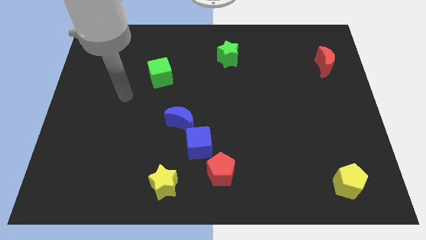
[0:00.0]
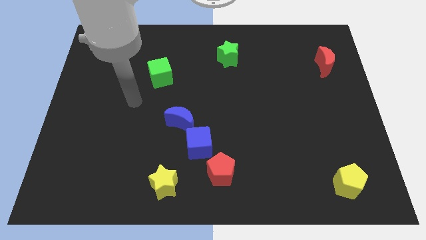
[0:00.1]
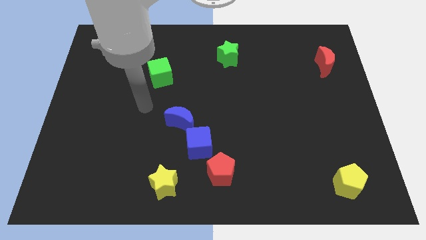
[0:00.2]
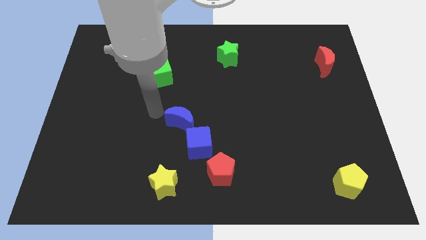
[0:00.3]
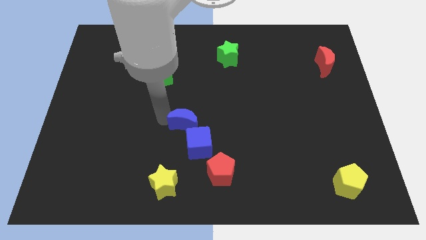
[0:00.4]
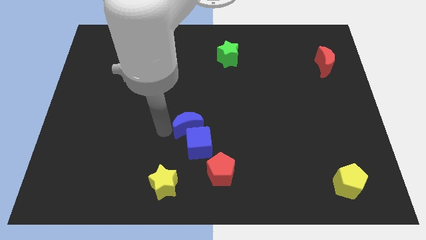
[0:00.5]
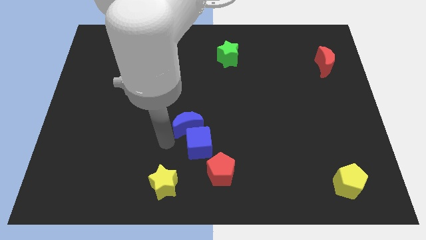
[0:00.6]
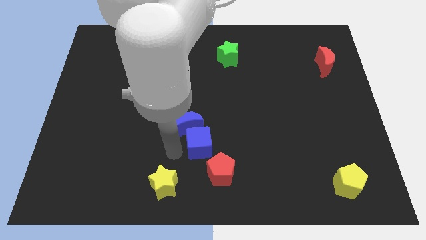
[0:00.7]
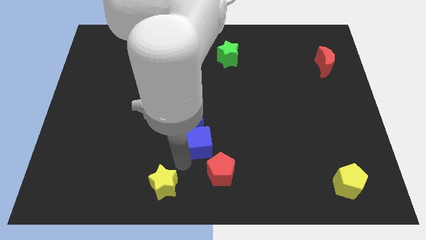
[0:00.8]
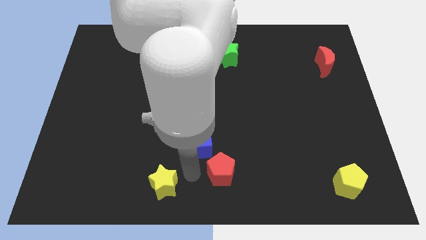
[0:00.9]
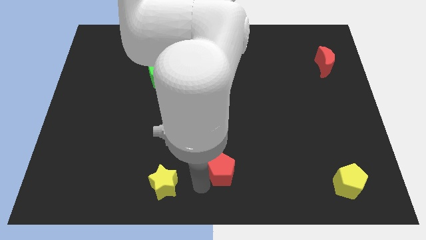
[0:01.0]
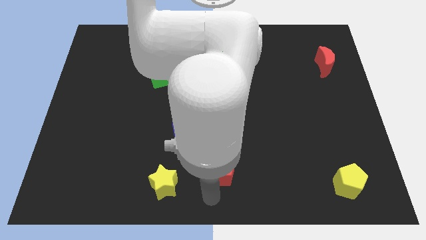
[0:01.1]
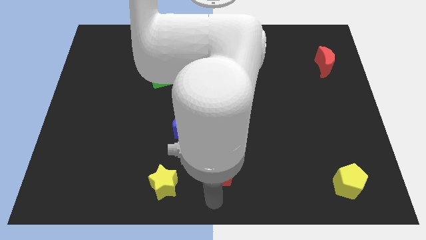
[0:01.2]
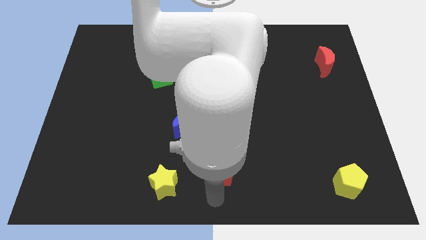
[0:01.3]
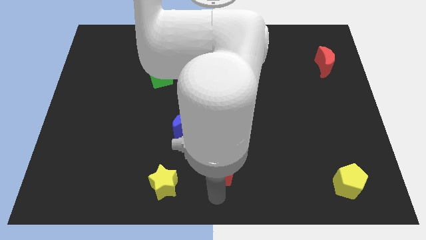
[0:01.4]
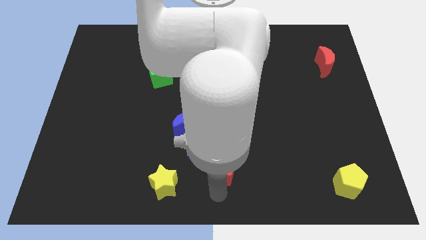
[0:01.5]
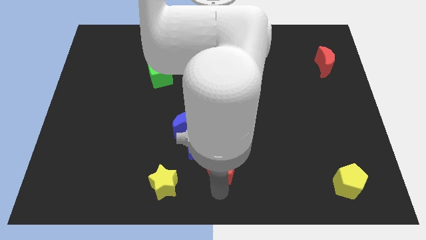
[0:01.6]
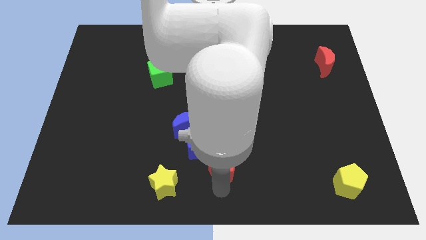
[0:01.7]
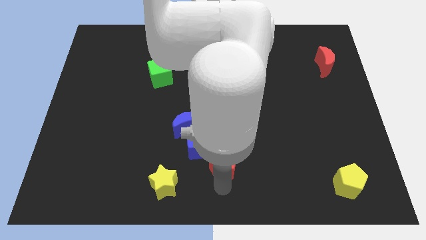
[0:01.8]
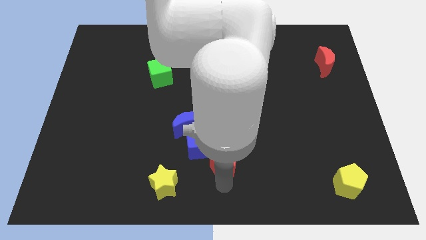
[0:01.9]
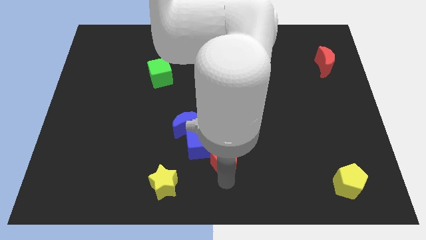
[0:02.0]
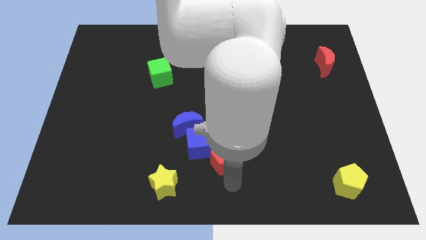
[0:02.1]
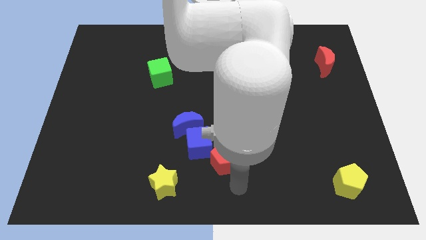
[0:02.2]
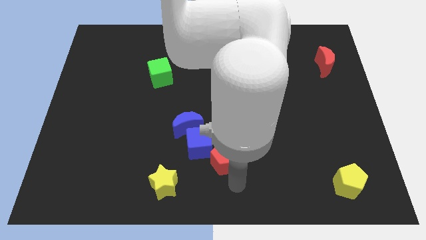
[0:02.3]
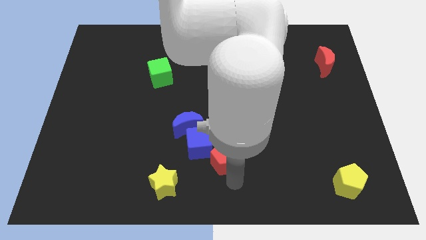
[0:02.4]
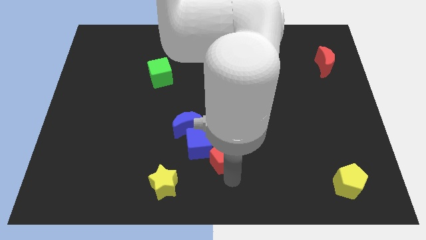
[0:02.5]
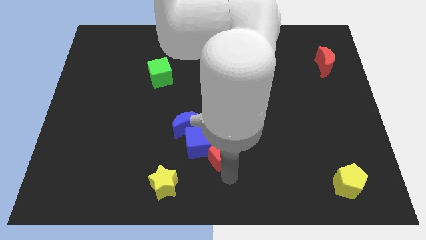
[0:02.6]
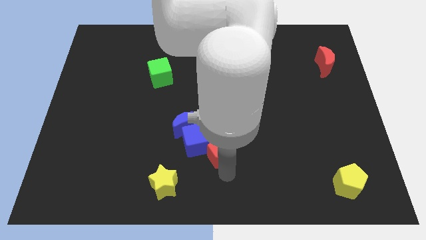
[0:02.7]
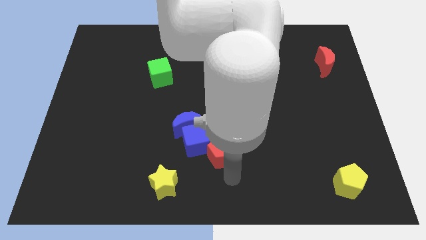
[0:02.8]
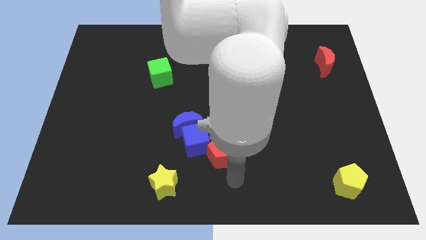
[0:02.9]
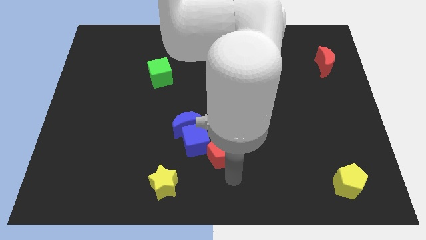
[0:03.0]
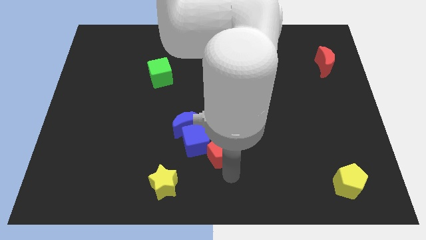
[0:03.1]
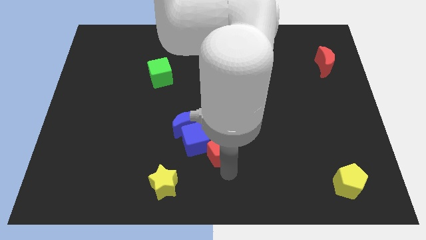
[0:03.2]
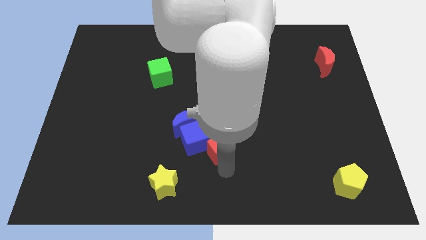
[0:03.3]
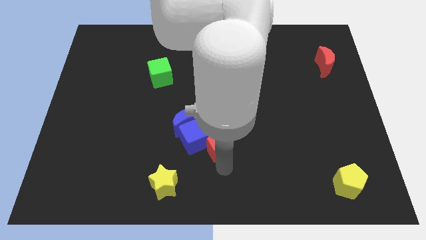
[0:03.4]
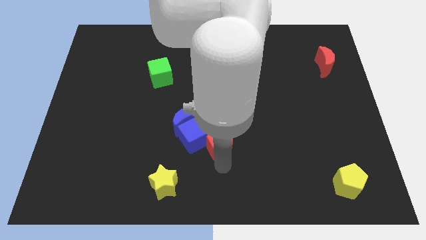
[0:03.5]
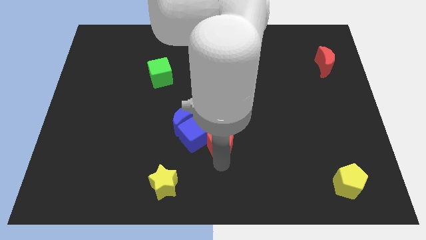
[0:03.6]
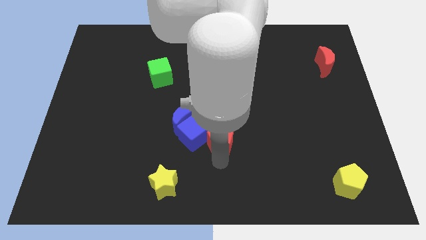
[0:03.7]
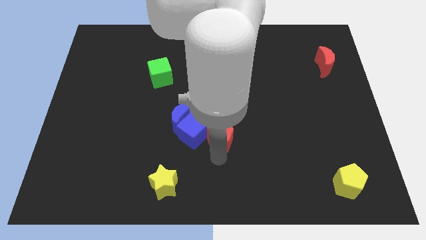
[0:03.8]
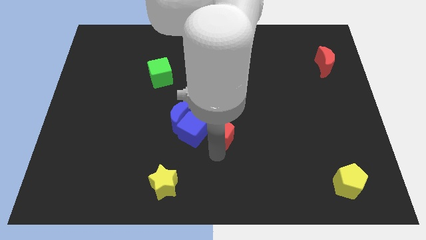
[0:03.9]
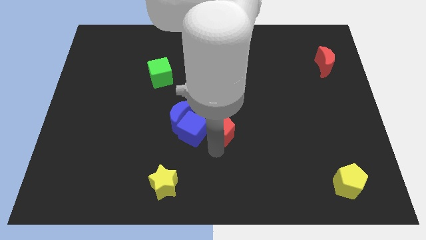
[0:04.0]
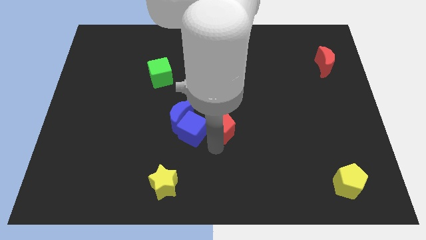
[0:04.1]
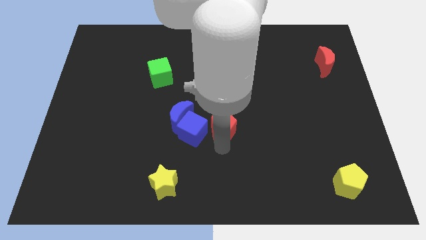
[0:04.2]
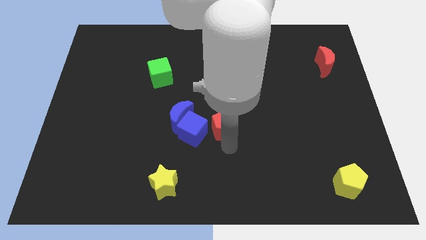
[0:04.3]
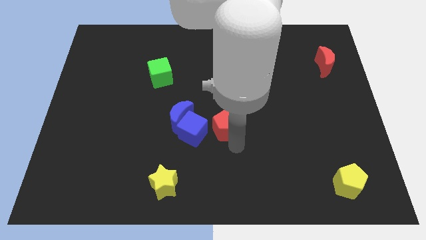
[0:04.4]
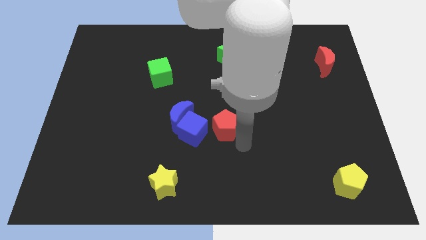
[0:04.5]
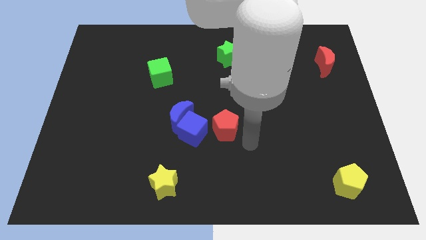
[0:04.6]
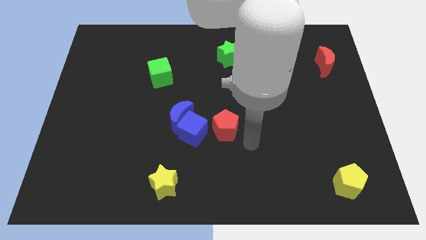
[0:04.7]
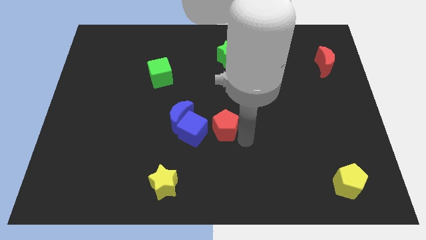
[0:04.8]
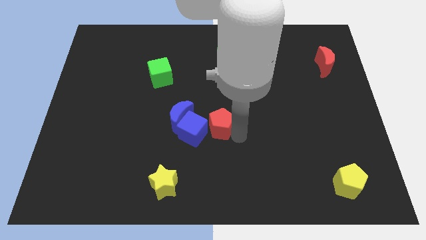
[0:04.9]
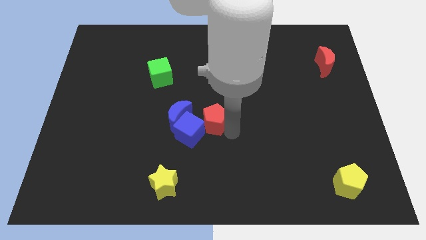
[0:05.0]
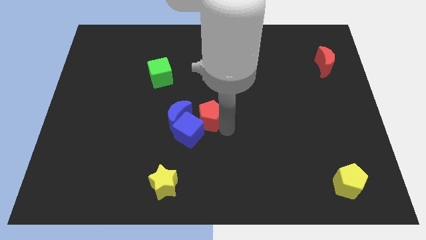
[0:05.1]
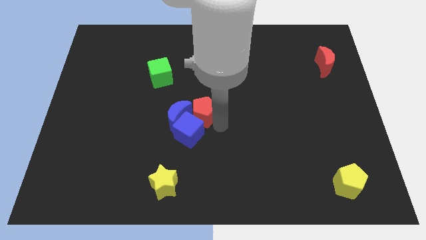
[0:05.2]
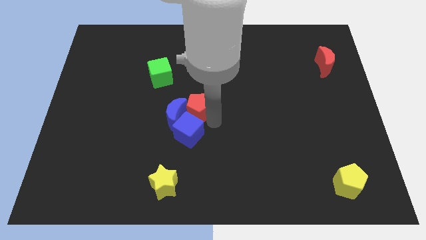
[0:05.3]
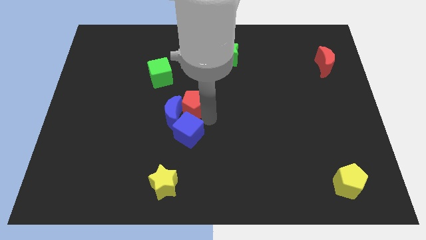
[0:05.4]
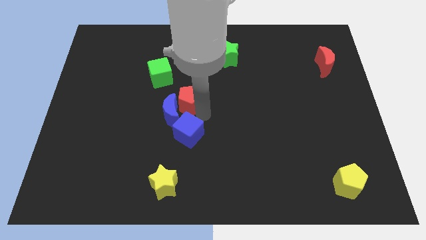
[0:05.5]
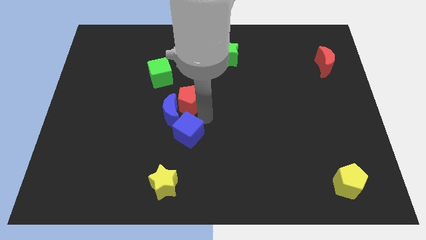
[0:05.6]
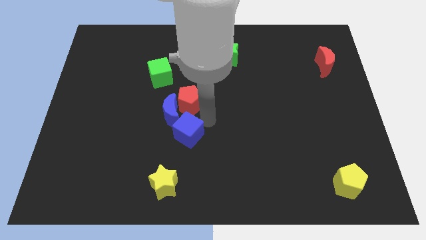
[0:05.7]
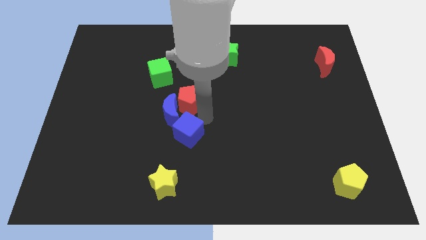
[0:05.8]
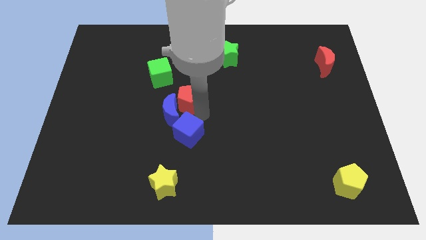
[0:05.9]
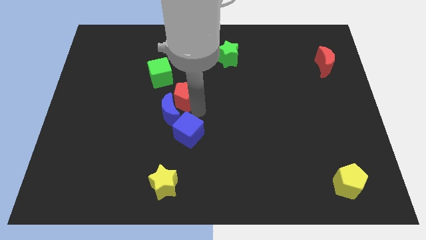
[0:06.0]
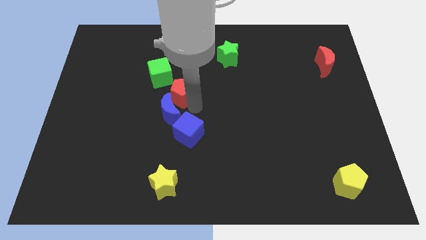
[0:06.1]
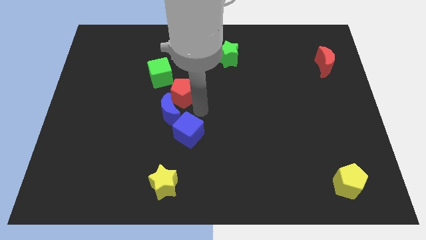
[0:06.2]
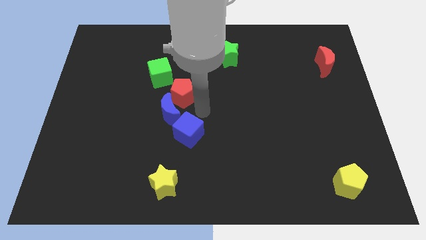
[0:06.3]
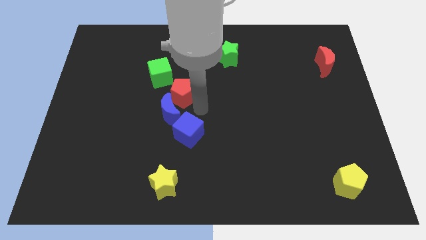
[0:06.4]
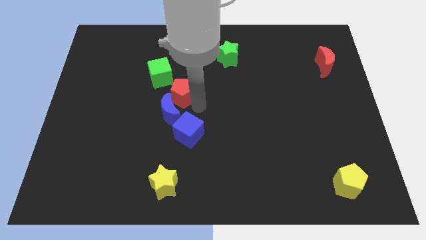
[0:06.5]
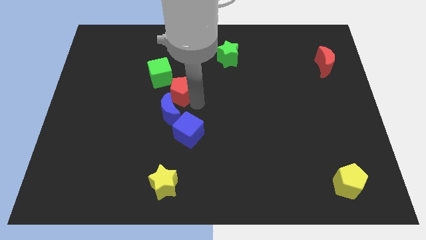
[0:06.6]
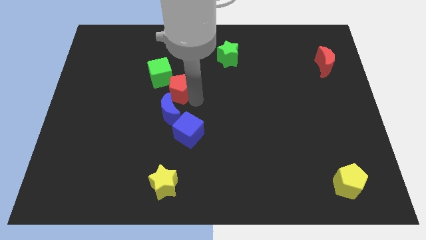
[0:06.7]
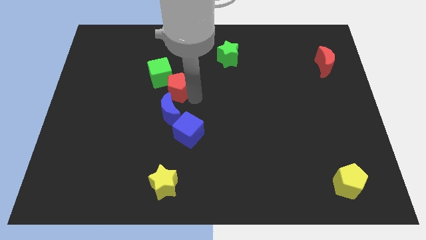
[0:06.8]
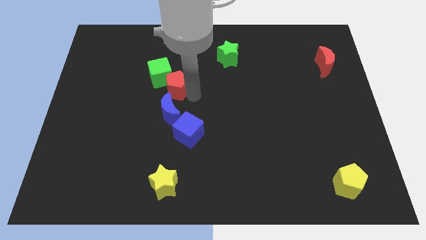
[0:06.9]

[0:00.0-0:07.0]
put the red pentagon to the green cube

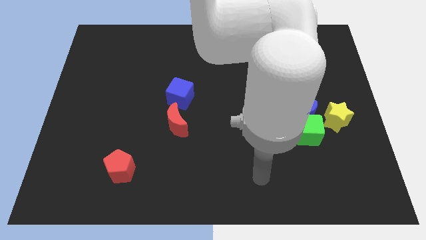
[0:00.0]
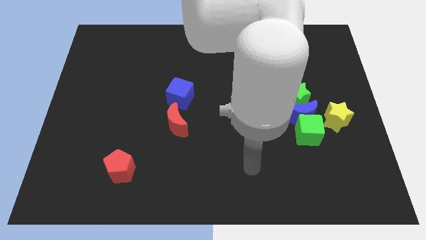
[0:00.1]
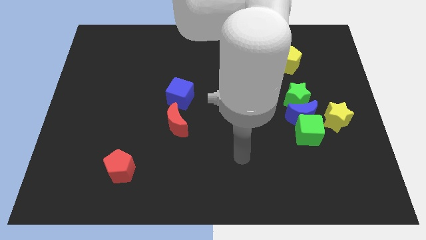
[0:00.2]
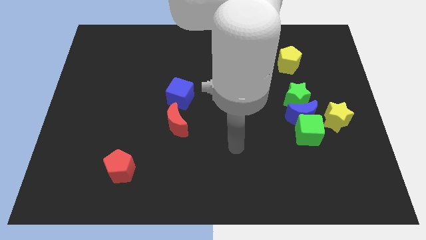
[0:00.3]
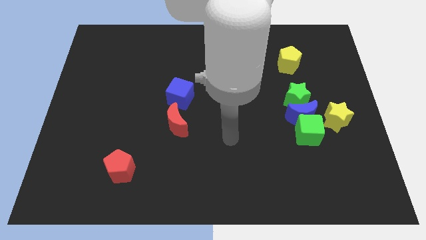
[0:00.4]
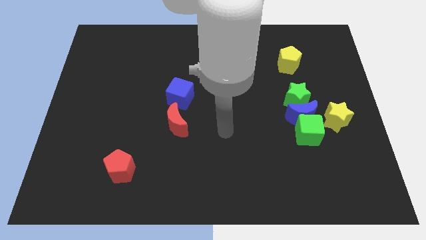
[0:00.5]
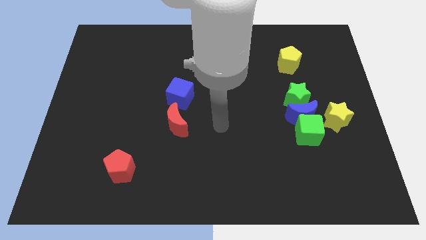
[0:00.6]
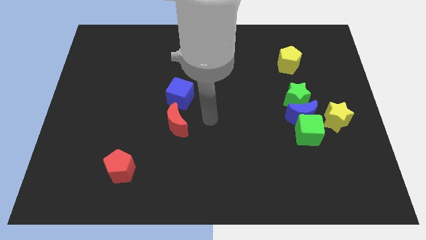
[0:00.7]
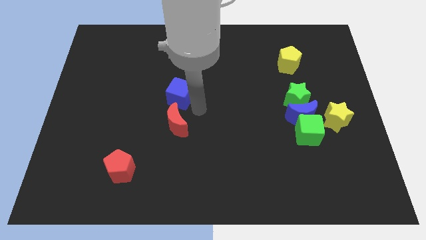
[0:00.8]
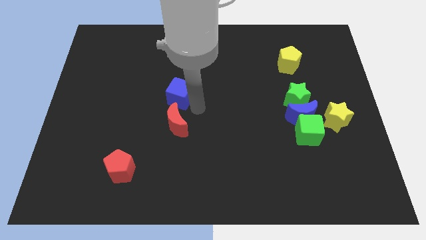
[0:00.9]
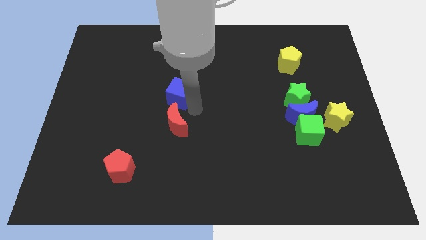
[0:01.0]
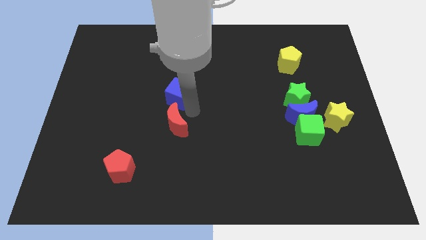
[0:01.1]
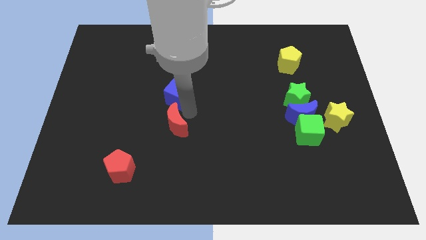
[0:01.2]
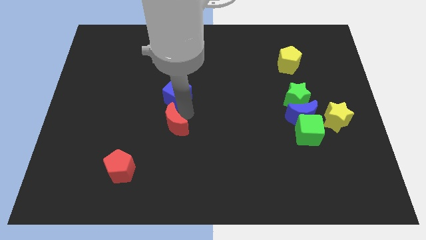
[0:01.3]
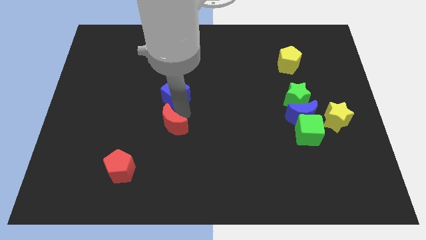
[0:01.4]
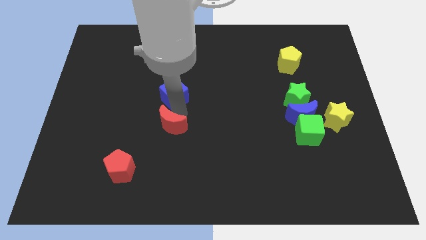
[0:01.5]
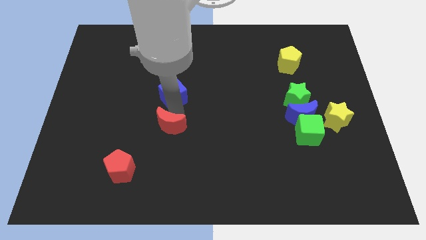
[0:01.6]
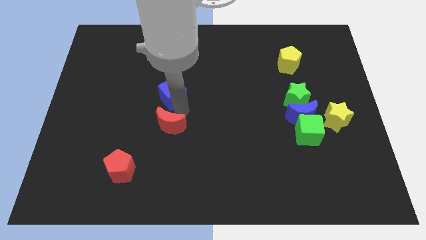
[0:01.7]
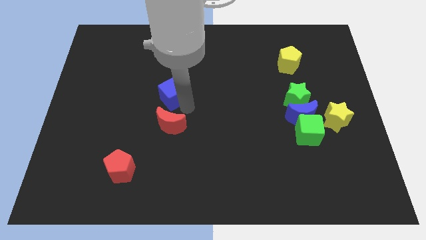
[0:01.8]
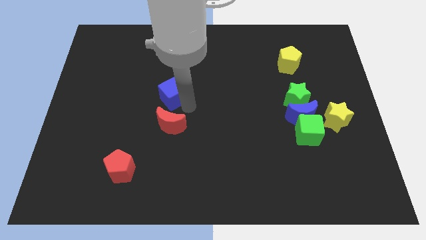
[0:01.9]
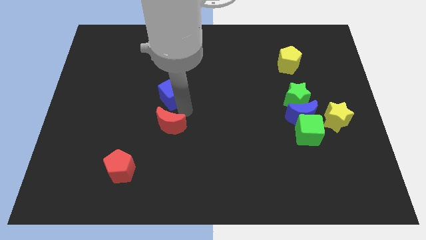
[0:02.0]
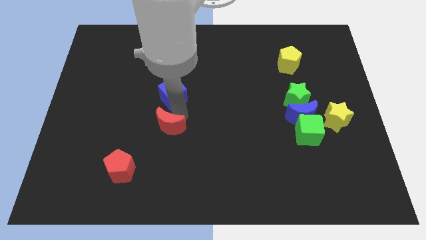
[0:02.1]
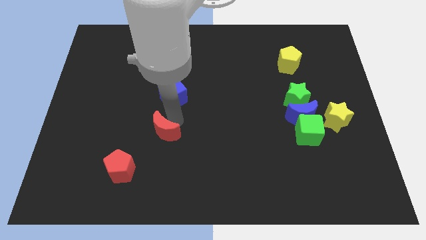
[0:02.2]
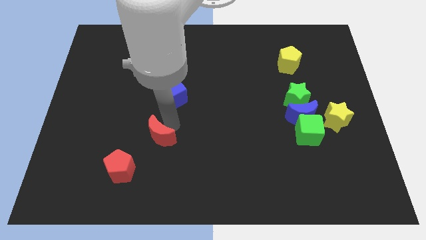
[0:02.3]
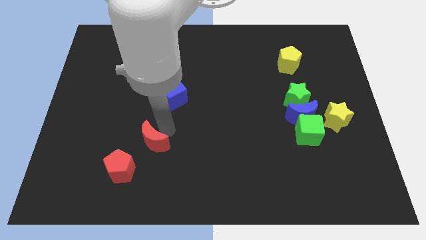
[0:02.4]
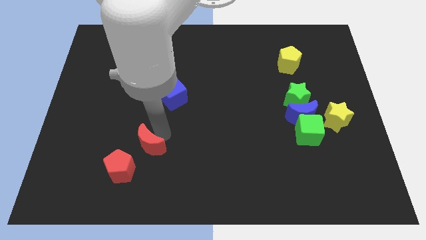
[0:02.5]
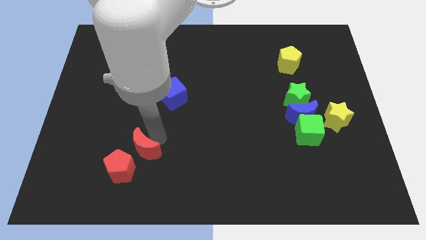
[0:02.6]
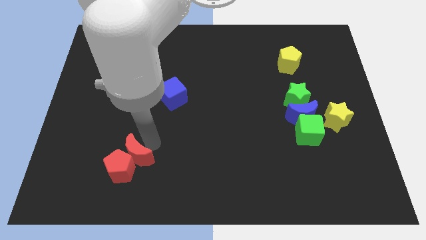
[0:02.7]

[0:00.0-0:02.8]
put the red moon close to the red pentagon
